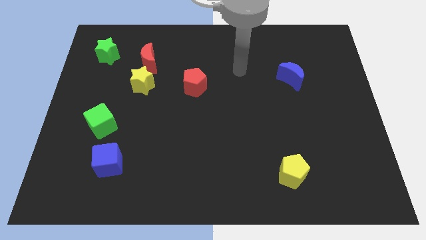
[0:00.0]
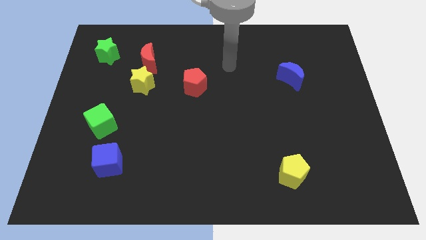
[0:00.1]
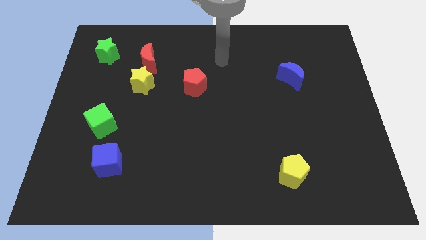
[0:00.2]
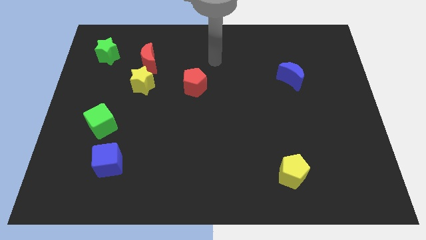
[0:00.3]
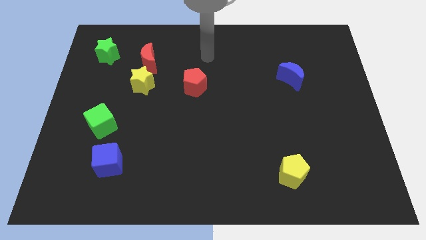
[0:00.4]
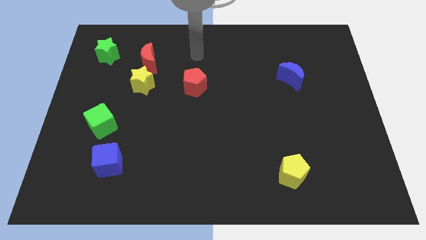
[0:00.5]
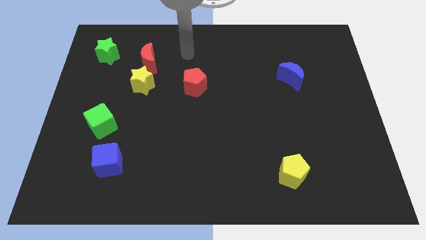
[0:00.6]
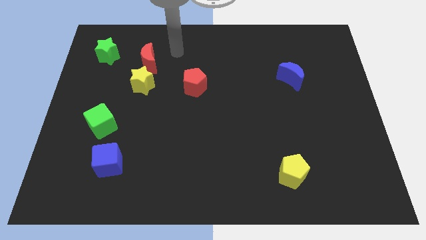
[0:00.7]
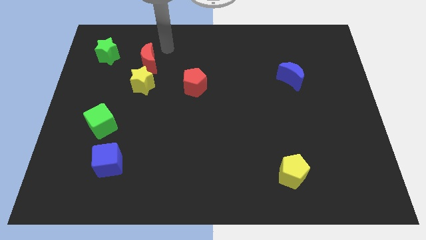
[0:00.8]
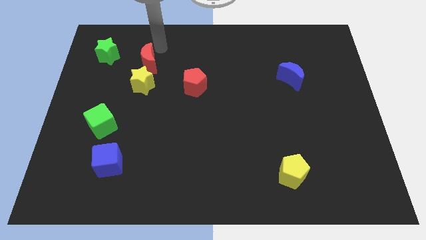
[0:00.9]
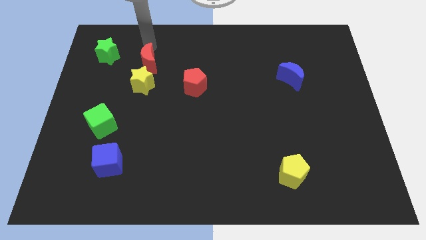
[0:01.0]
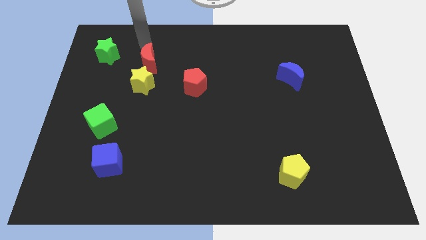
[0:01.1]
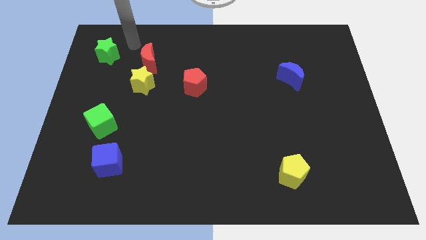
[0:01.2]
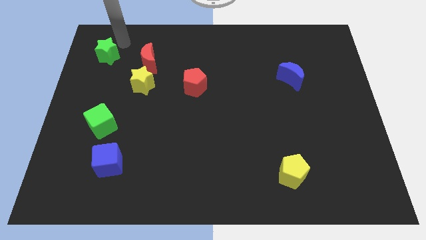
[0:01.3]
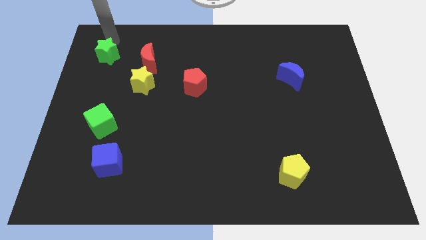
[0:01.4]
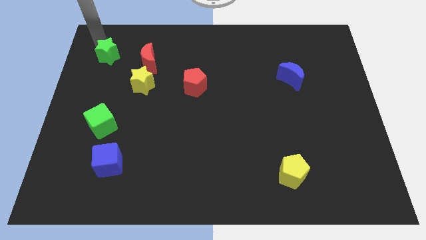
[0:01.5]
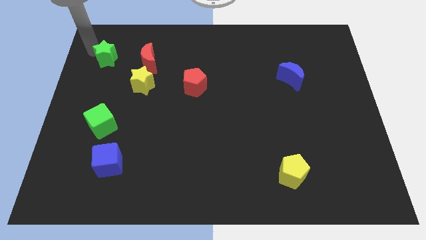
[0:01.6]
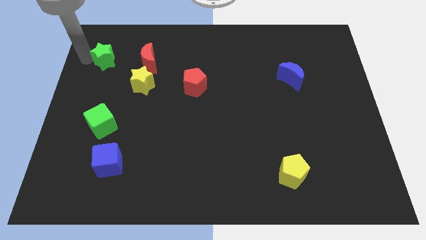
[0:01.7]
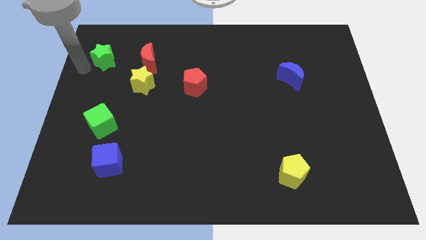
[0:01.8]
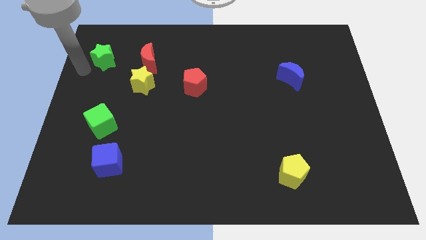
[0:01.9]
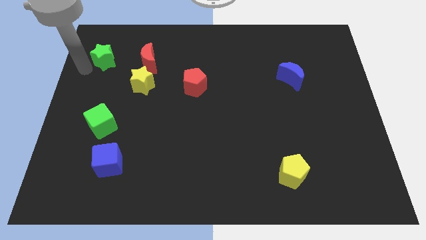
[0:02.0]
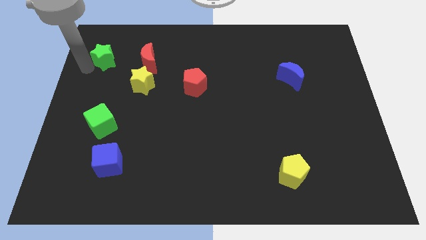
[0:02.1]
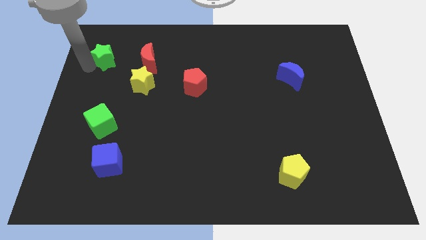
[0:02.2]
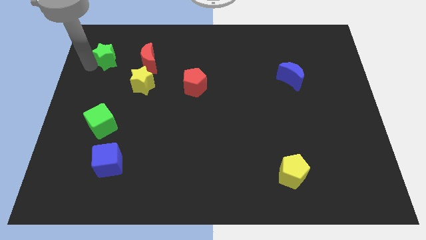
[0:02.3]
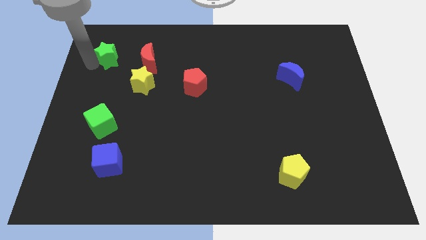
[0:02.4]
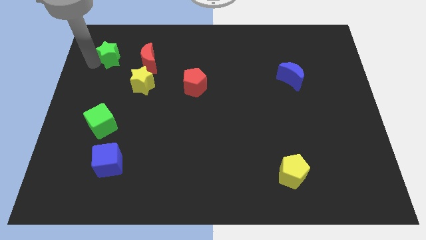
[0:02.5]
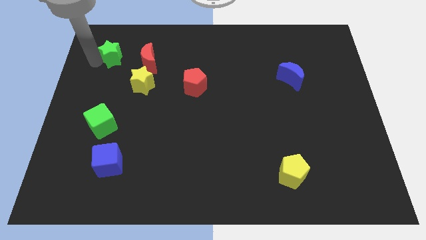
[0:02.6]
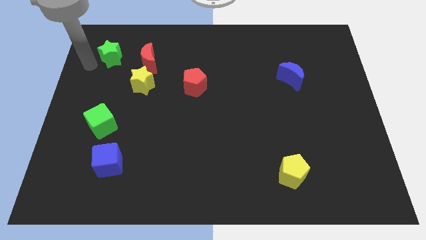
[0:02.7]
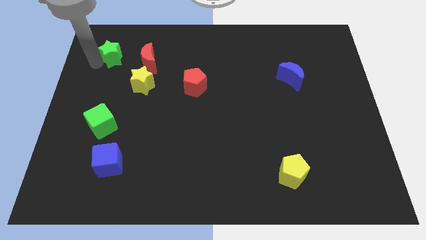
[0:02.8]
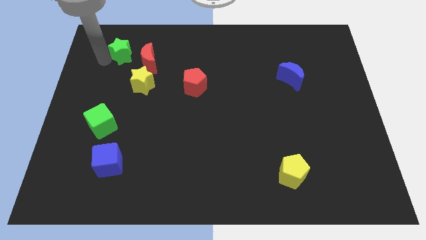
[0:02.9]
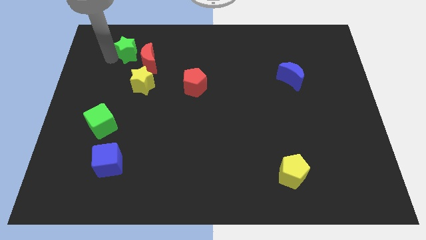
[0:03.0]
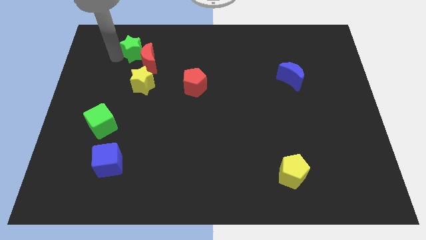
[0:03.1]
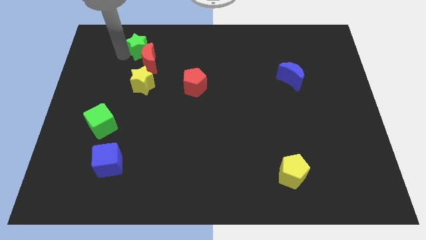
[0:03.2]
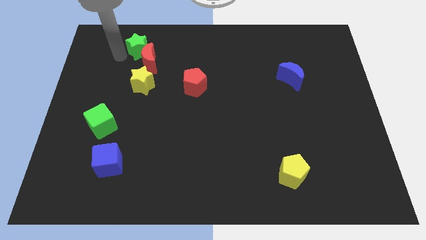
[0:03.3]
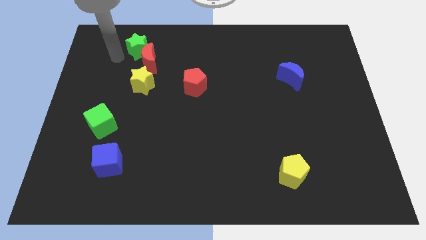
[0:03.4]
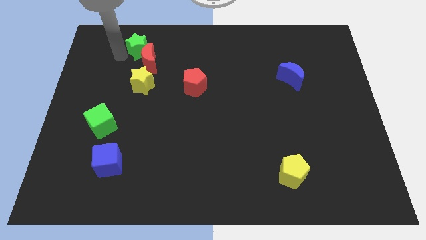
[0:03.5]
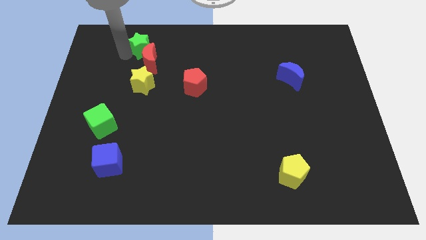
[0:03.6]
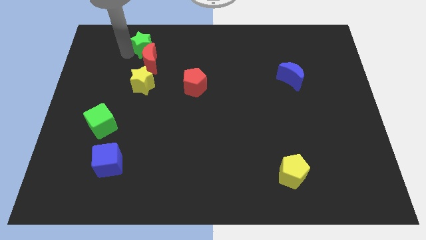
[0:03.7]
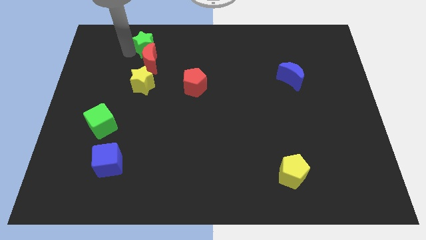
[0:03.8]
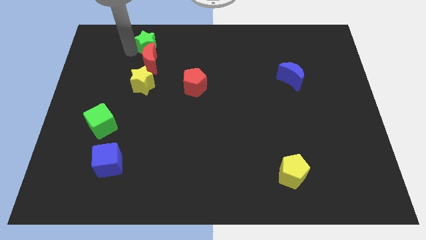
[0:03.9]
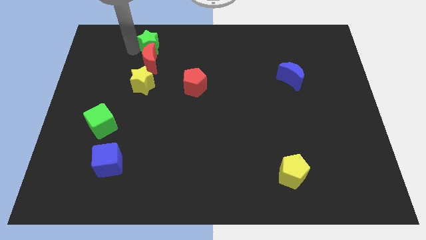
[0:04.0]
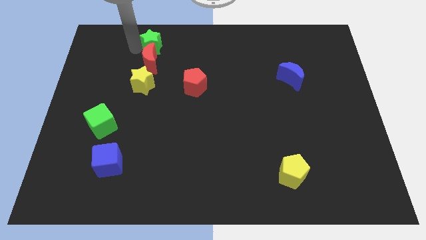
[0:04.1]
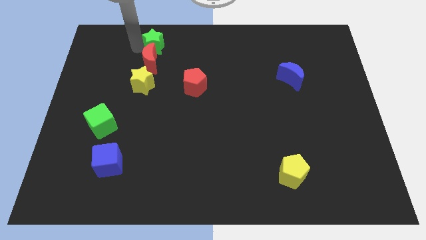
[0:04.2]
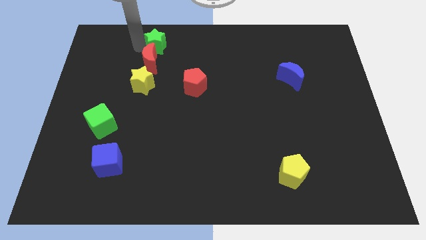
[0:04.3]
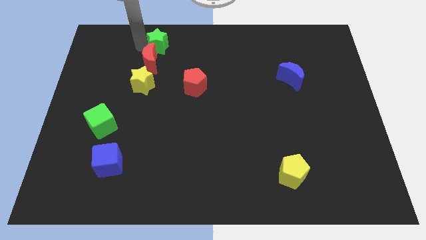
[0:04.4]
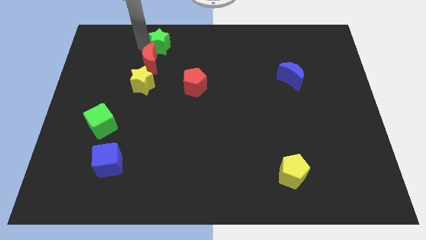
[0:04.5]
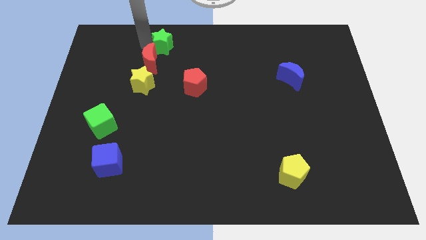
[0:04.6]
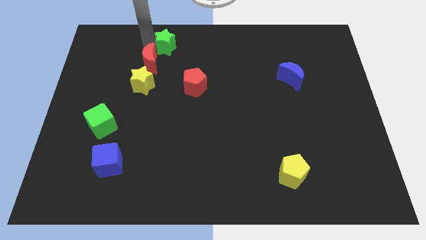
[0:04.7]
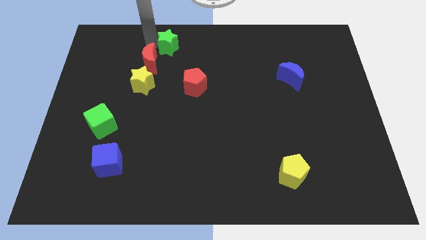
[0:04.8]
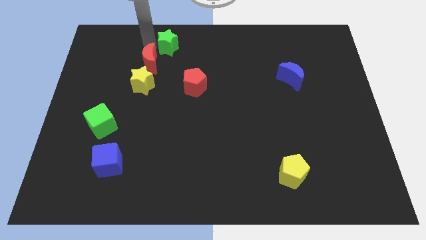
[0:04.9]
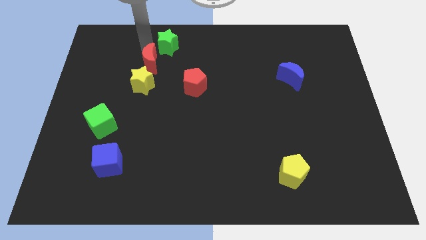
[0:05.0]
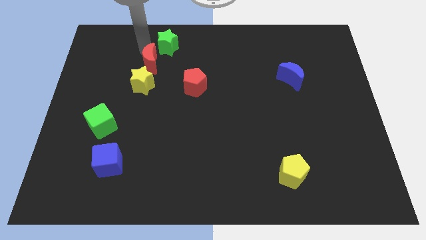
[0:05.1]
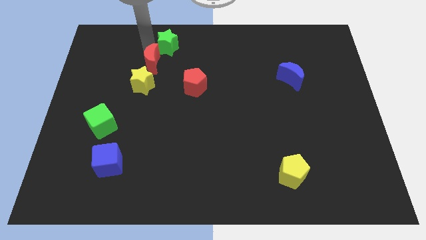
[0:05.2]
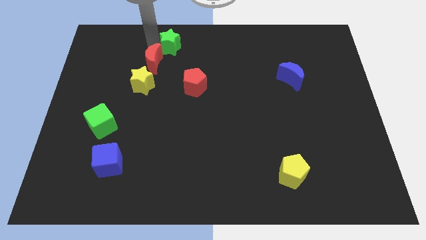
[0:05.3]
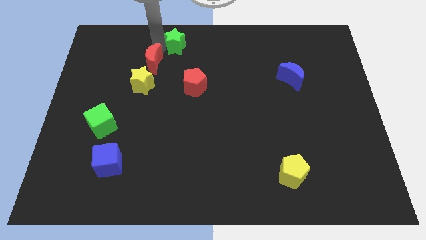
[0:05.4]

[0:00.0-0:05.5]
push the green star to the top

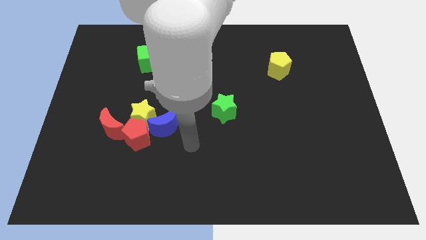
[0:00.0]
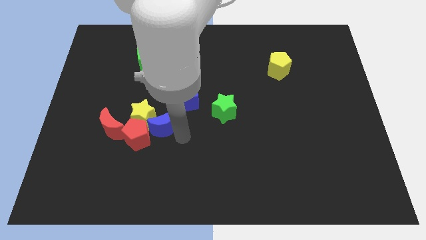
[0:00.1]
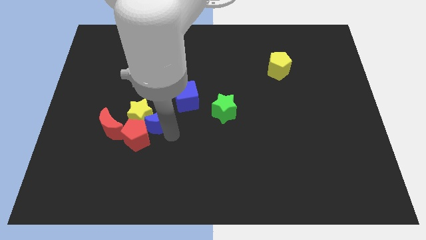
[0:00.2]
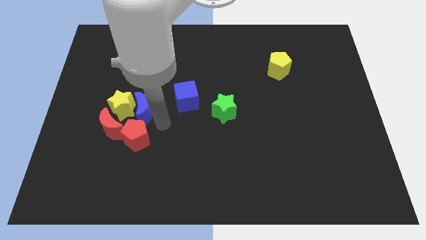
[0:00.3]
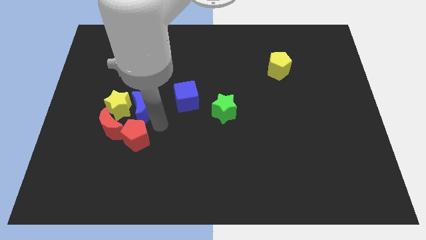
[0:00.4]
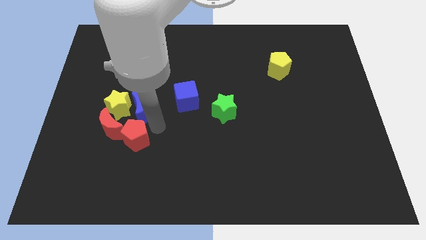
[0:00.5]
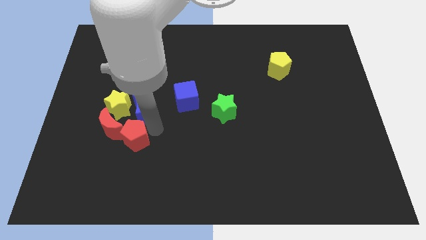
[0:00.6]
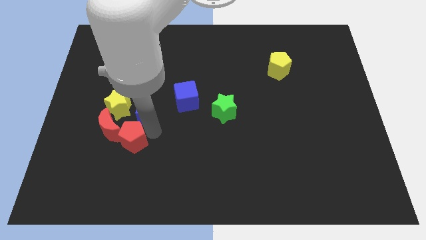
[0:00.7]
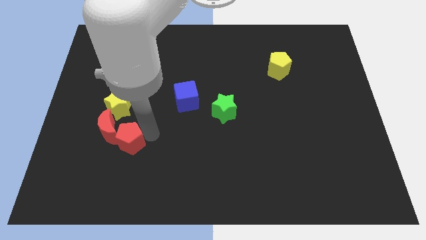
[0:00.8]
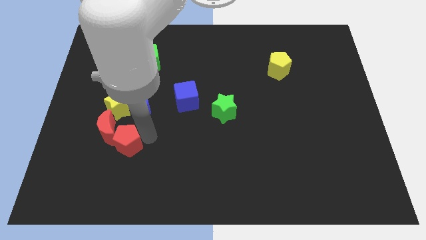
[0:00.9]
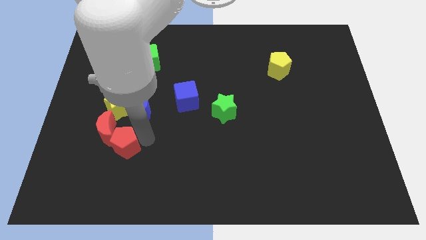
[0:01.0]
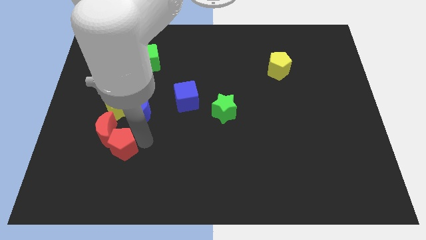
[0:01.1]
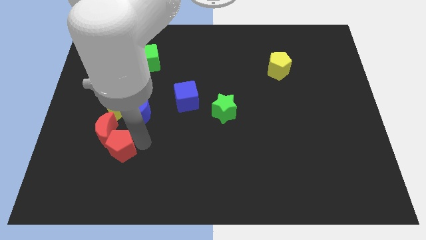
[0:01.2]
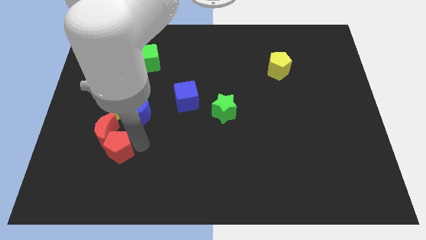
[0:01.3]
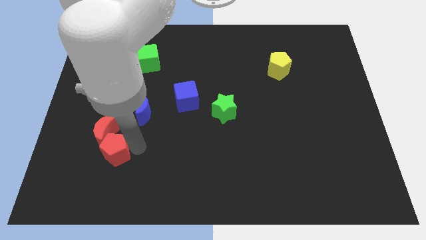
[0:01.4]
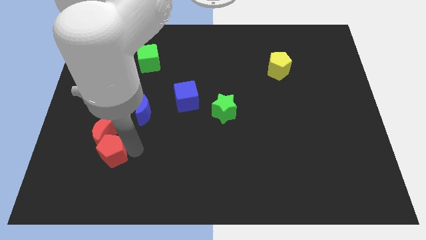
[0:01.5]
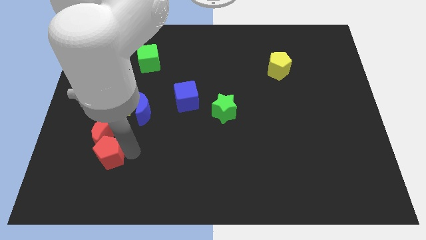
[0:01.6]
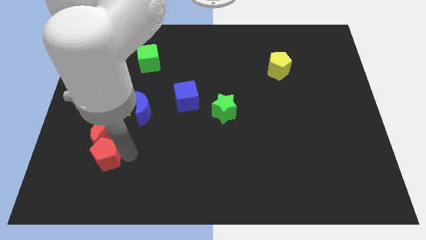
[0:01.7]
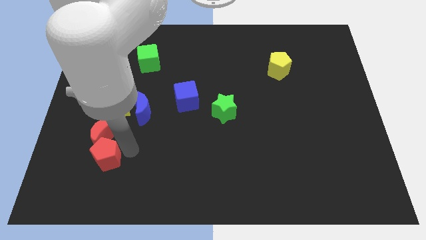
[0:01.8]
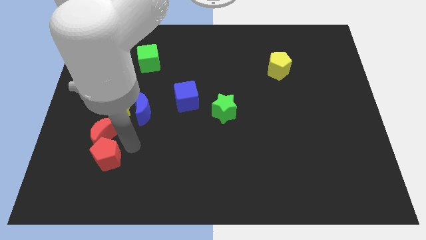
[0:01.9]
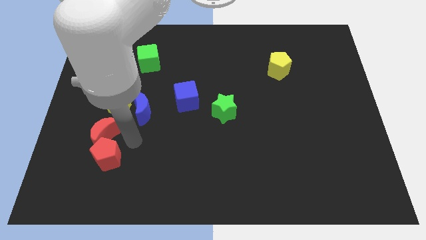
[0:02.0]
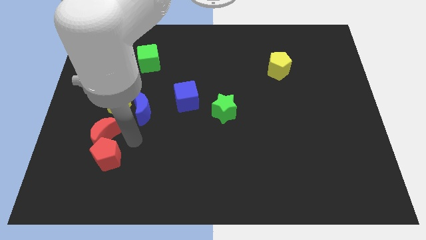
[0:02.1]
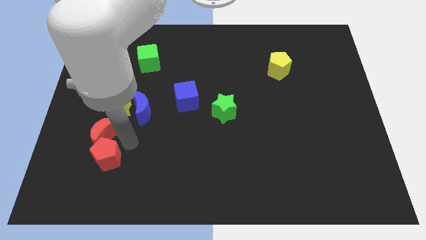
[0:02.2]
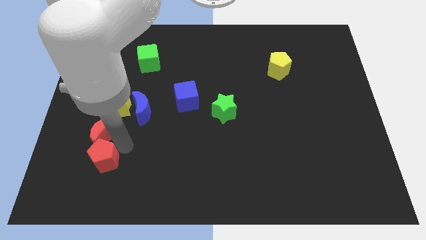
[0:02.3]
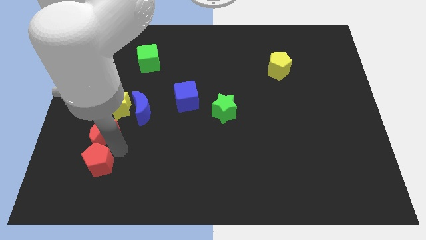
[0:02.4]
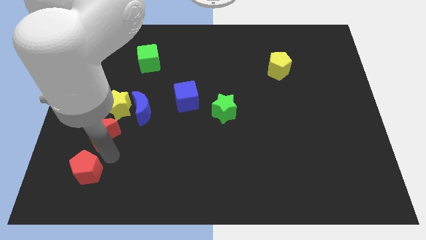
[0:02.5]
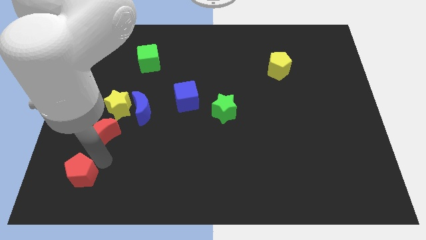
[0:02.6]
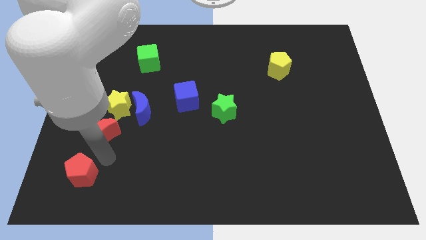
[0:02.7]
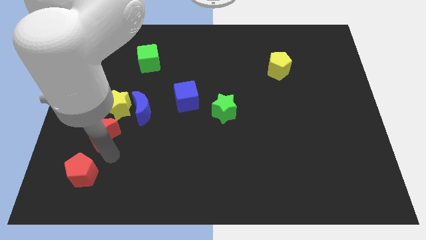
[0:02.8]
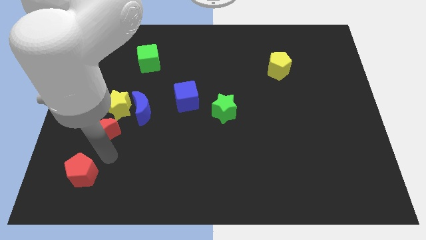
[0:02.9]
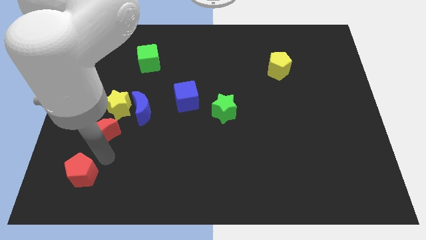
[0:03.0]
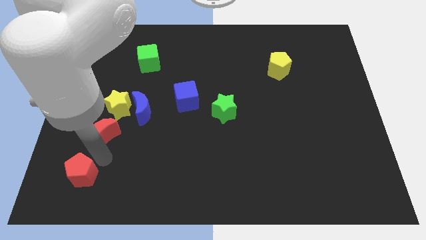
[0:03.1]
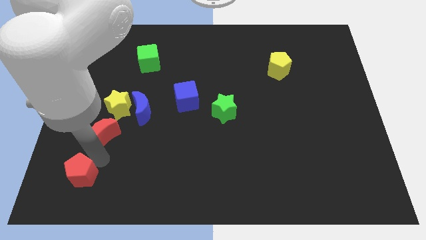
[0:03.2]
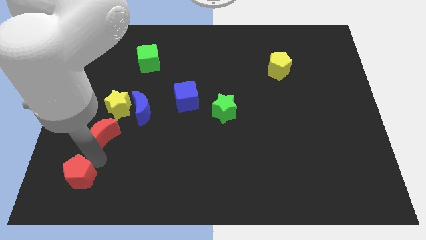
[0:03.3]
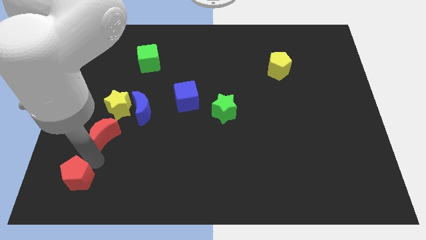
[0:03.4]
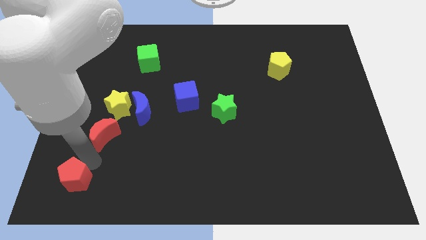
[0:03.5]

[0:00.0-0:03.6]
put the red pentagon to the lower left corner
